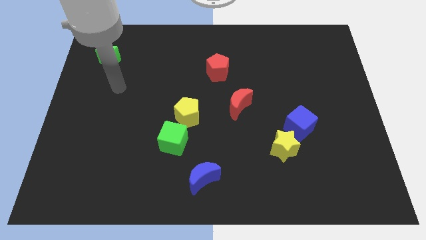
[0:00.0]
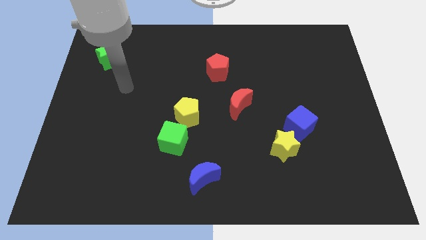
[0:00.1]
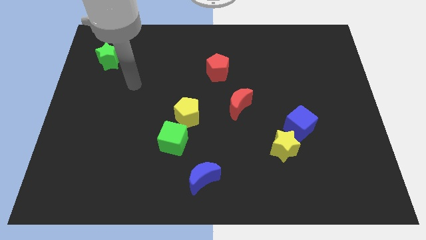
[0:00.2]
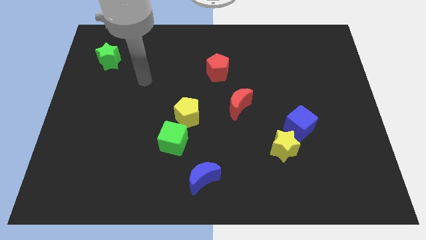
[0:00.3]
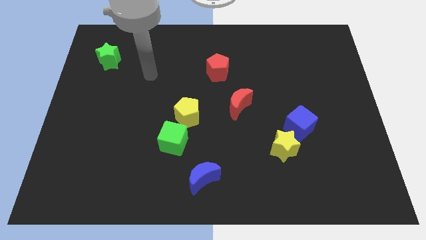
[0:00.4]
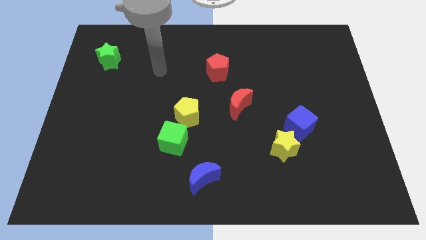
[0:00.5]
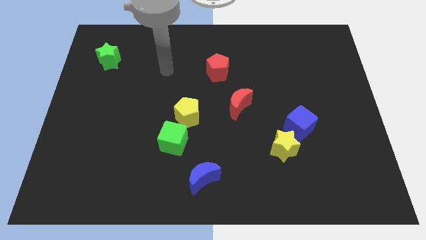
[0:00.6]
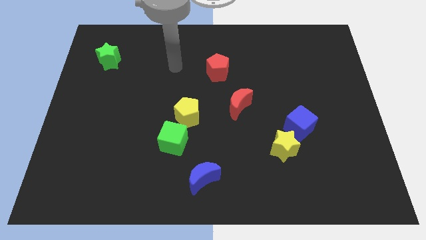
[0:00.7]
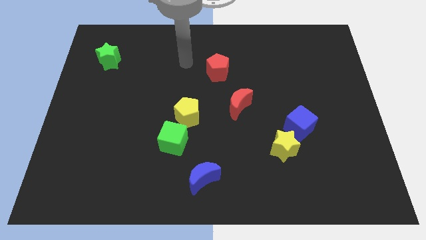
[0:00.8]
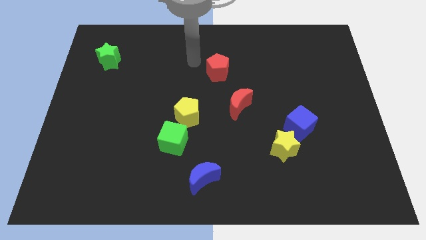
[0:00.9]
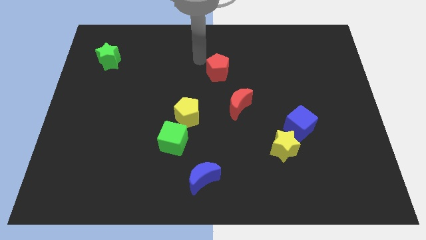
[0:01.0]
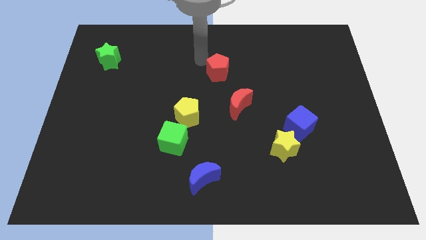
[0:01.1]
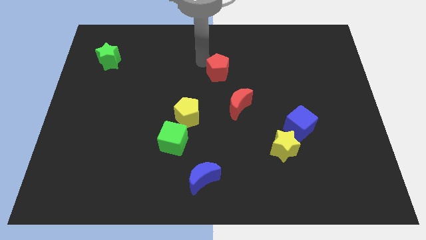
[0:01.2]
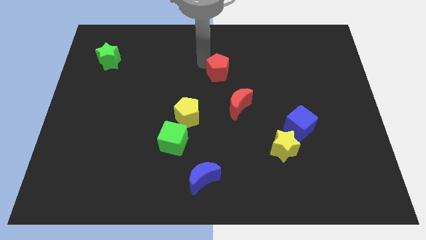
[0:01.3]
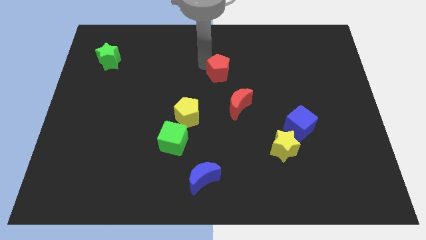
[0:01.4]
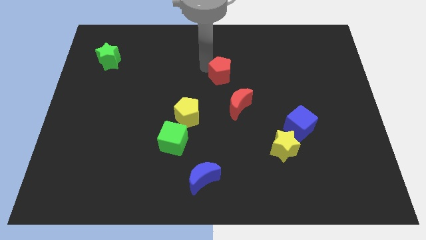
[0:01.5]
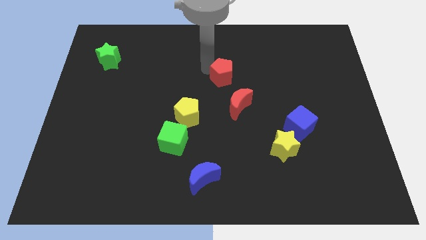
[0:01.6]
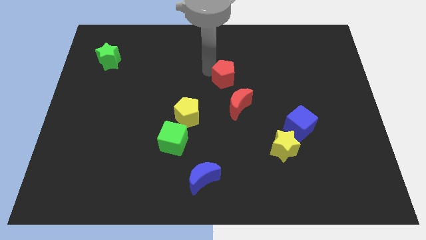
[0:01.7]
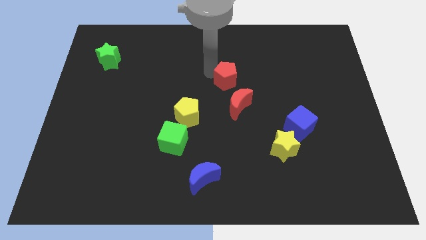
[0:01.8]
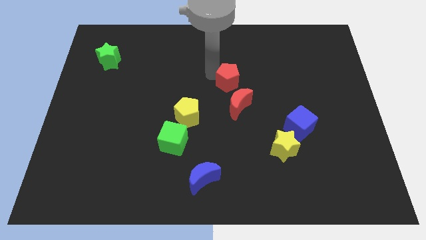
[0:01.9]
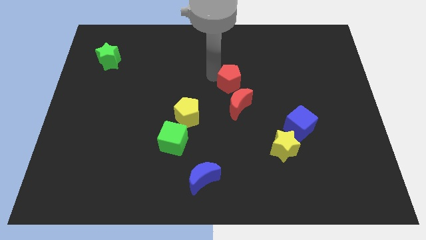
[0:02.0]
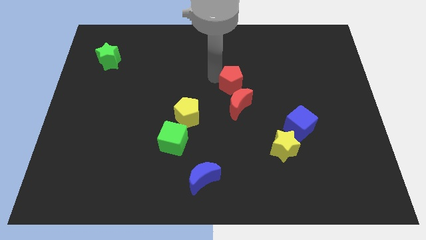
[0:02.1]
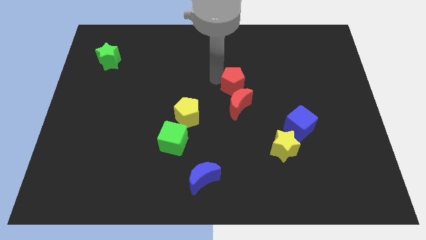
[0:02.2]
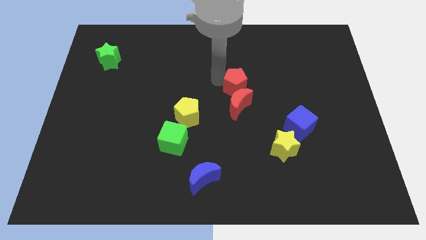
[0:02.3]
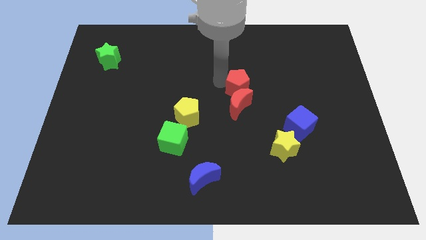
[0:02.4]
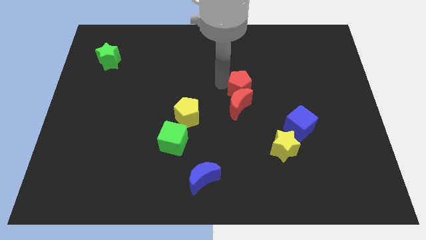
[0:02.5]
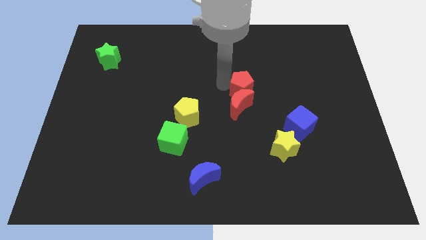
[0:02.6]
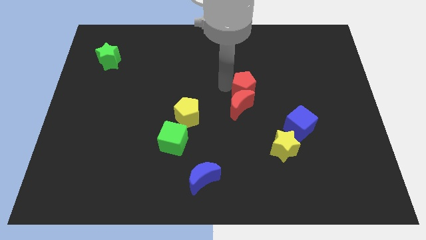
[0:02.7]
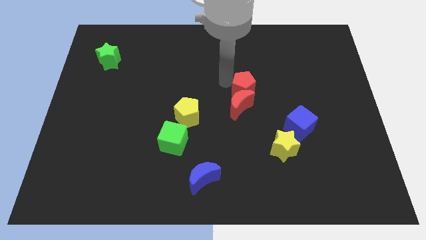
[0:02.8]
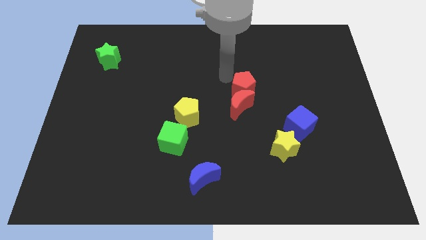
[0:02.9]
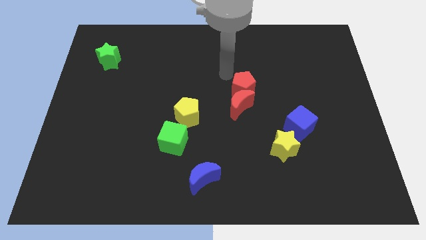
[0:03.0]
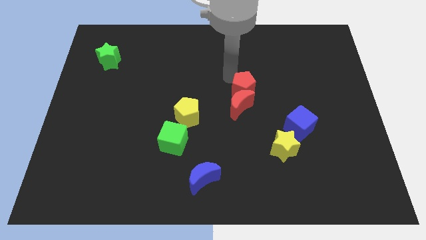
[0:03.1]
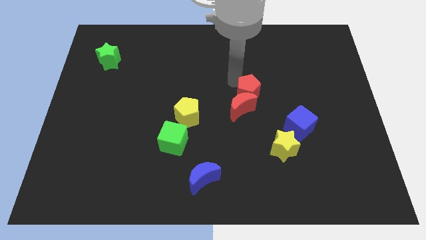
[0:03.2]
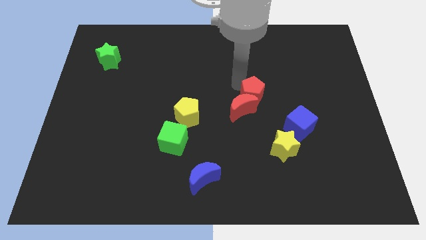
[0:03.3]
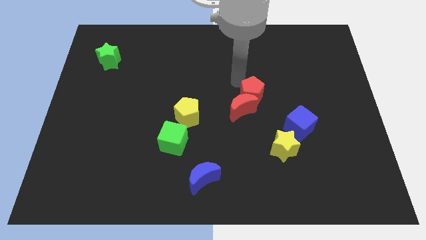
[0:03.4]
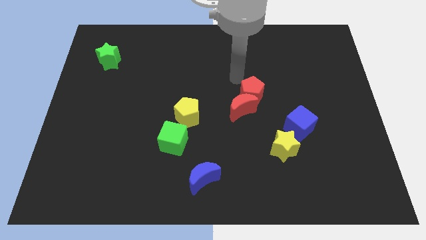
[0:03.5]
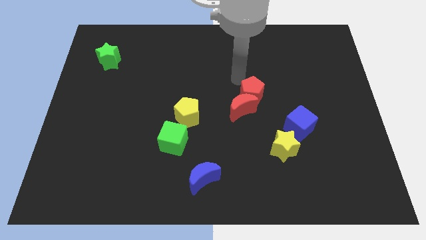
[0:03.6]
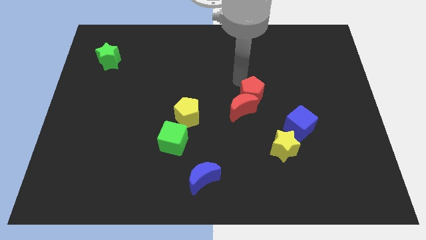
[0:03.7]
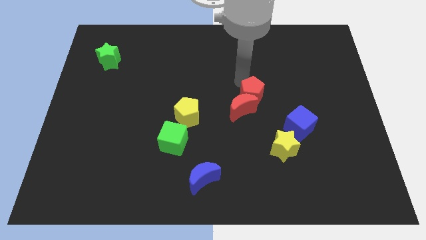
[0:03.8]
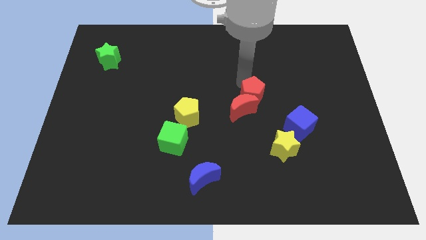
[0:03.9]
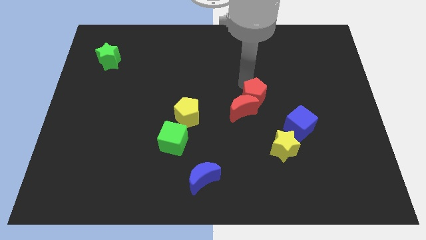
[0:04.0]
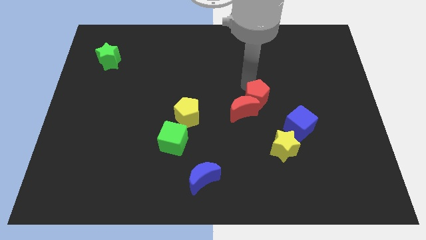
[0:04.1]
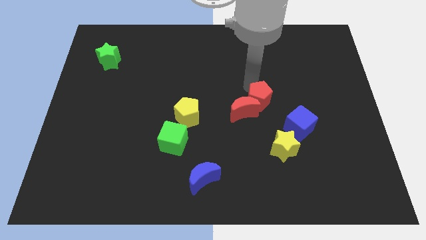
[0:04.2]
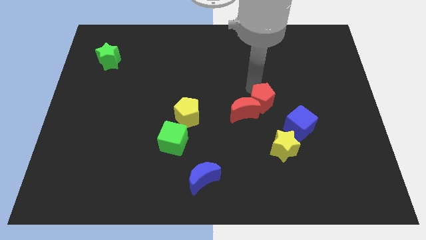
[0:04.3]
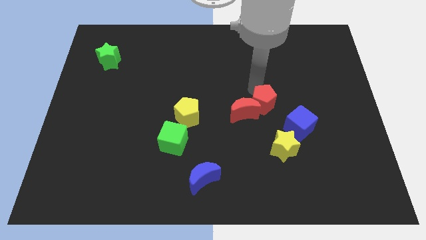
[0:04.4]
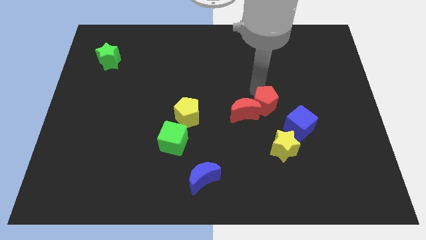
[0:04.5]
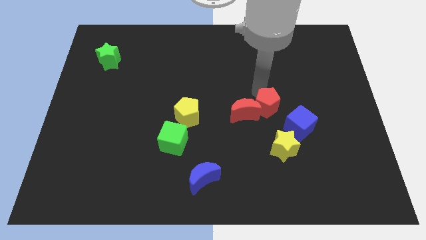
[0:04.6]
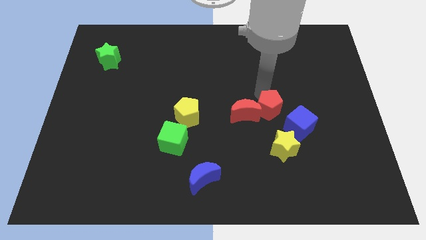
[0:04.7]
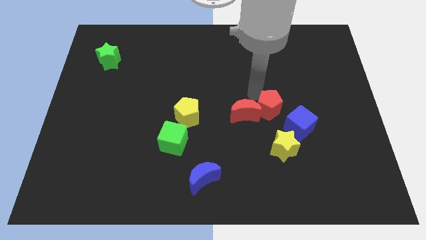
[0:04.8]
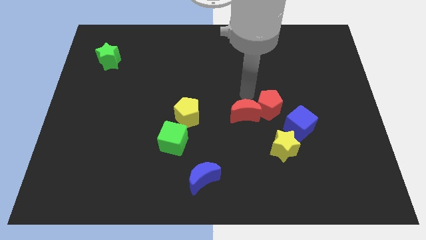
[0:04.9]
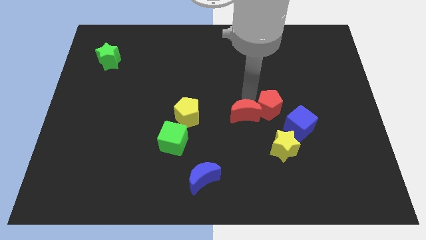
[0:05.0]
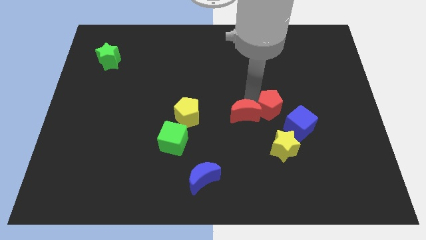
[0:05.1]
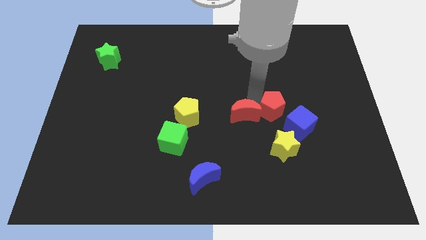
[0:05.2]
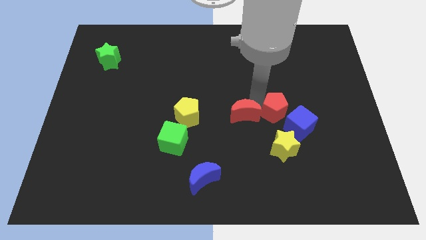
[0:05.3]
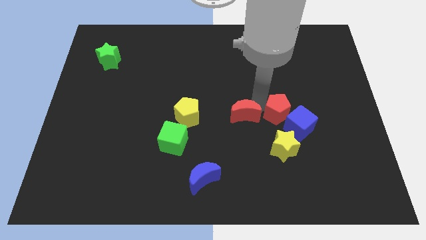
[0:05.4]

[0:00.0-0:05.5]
slide the red pentagon close to the blue cube
